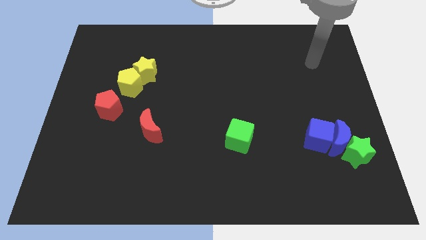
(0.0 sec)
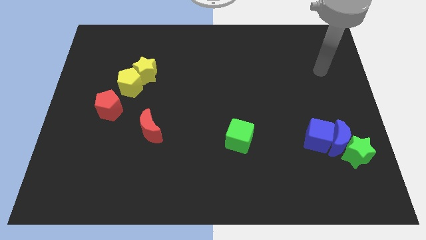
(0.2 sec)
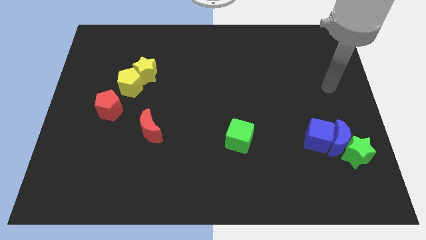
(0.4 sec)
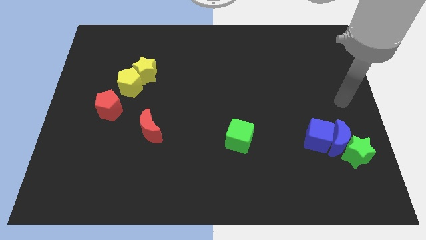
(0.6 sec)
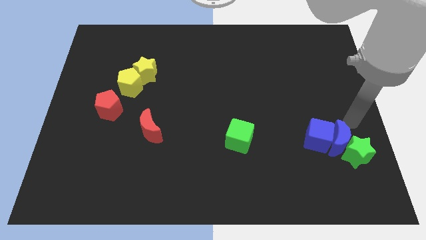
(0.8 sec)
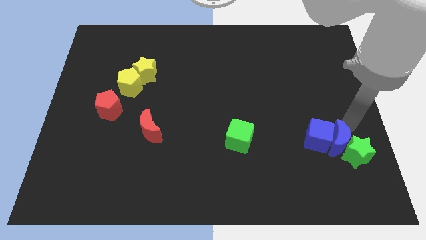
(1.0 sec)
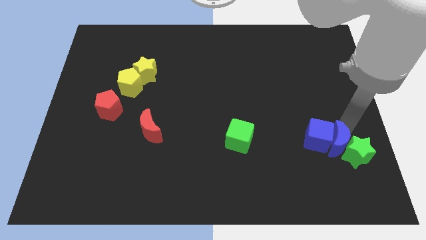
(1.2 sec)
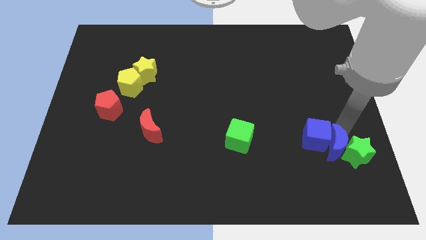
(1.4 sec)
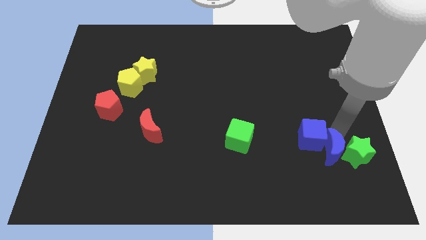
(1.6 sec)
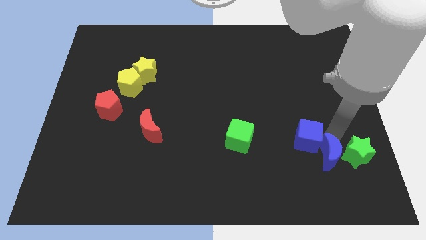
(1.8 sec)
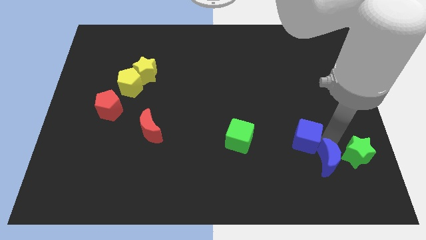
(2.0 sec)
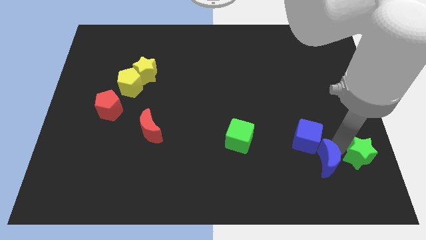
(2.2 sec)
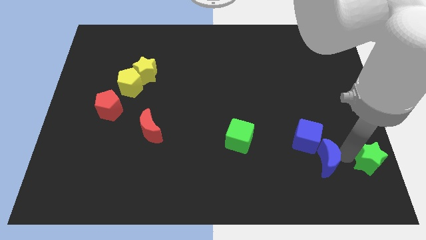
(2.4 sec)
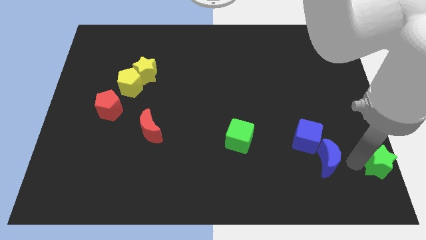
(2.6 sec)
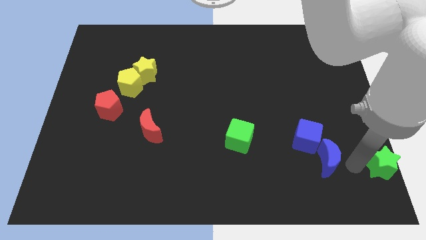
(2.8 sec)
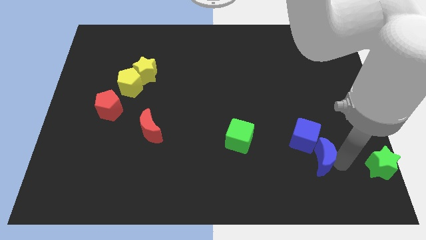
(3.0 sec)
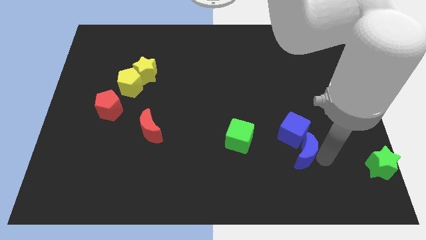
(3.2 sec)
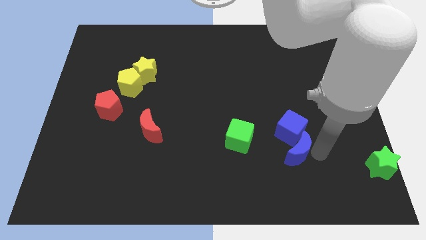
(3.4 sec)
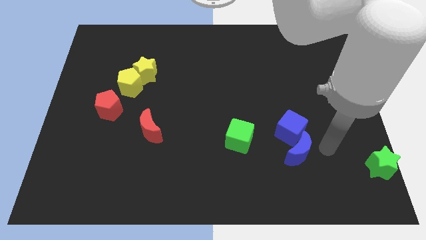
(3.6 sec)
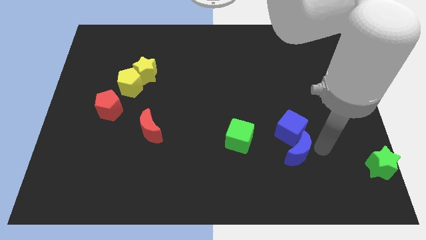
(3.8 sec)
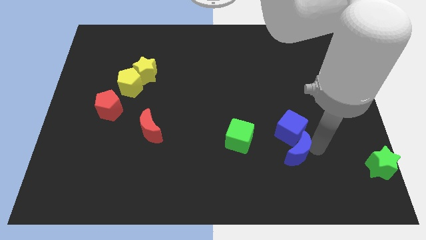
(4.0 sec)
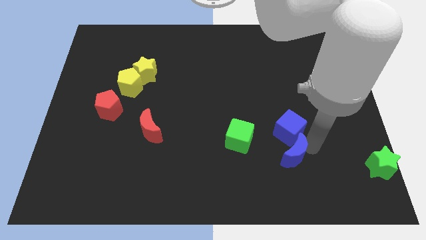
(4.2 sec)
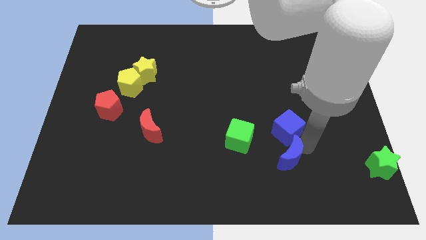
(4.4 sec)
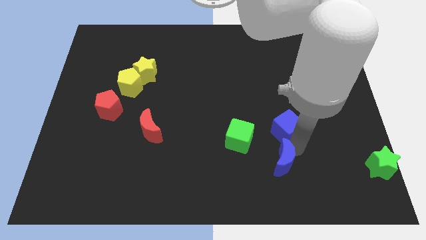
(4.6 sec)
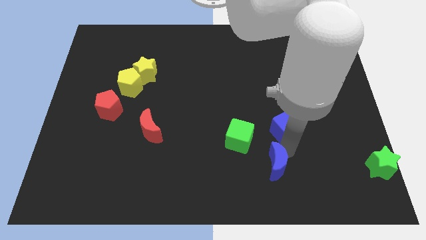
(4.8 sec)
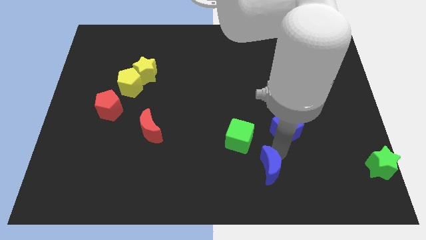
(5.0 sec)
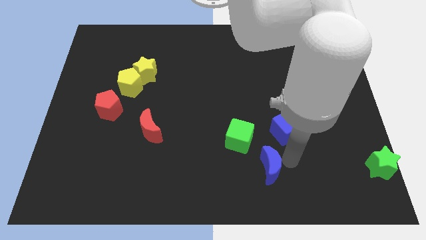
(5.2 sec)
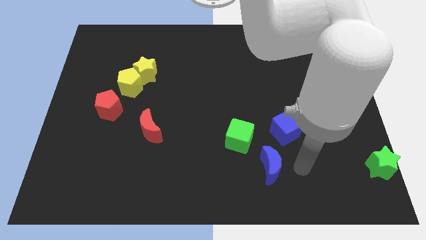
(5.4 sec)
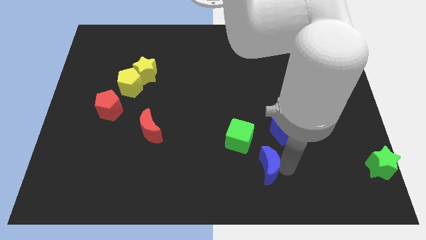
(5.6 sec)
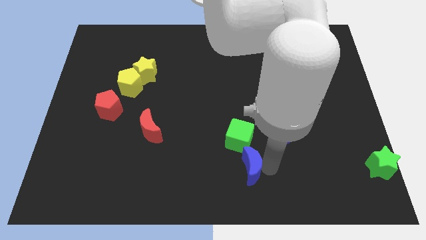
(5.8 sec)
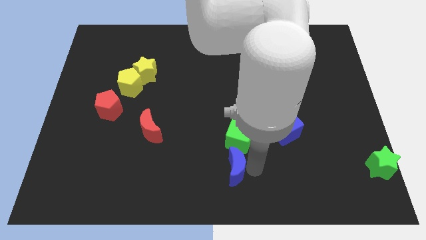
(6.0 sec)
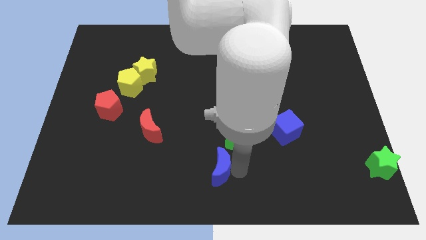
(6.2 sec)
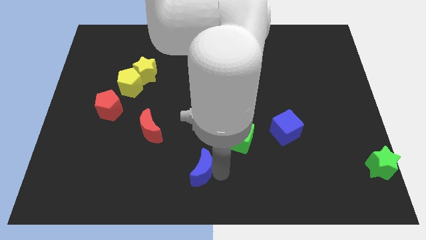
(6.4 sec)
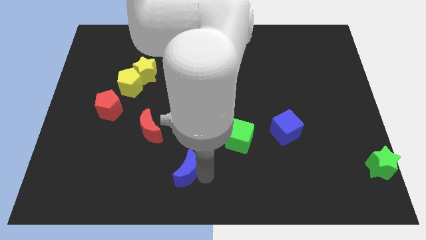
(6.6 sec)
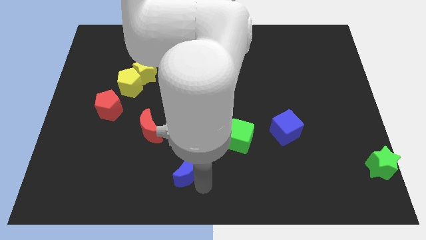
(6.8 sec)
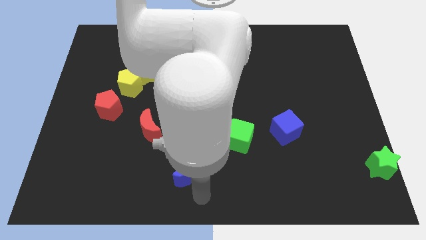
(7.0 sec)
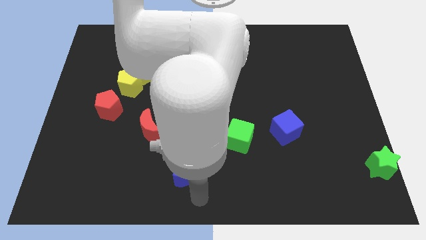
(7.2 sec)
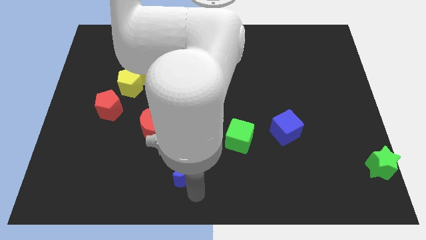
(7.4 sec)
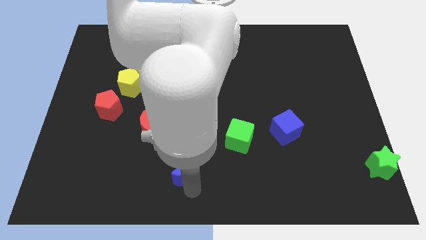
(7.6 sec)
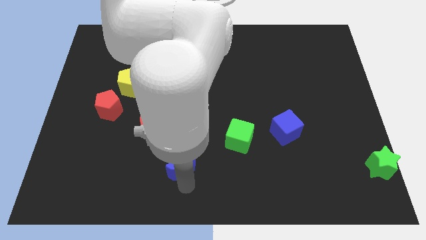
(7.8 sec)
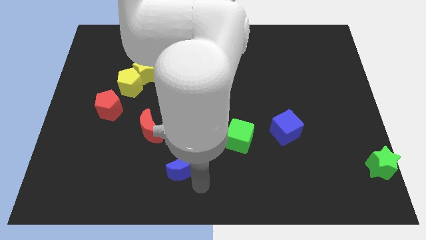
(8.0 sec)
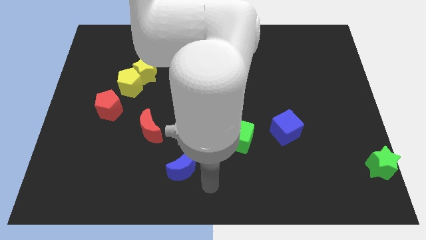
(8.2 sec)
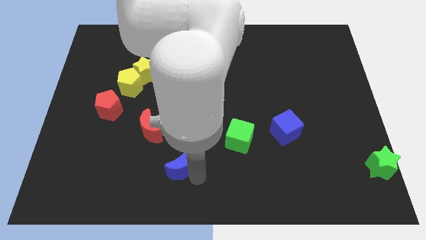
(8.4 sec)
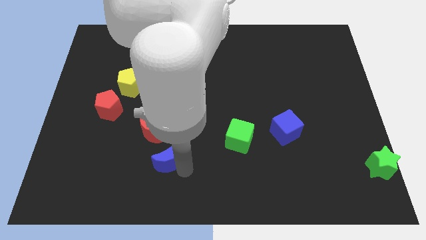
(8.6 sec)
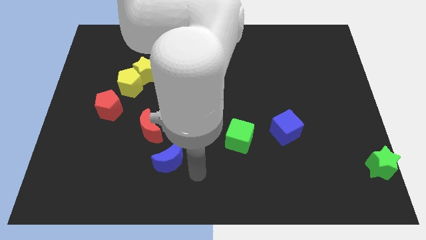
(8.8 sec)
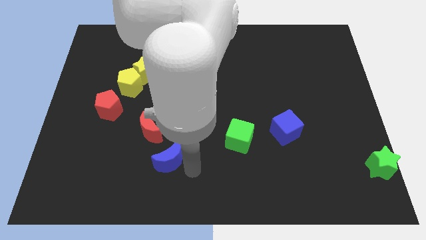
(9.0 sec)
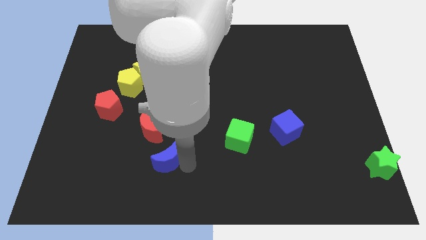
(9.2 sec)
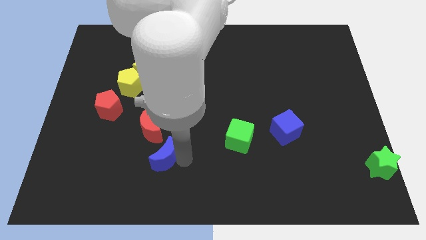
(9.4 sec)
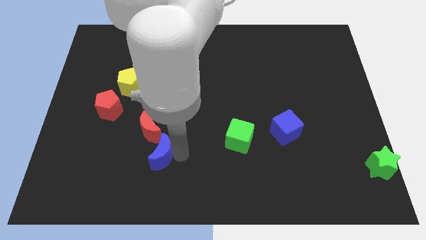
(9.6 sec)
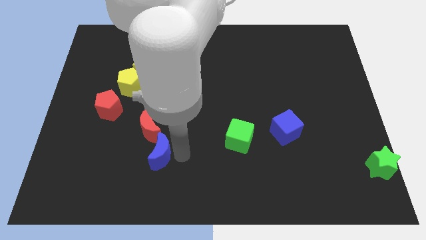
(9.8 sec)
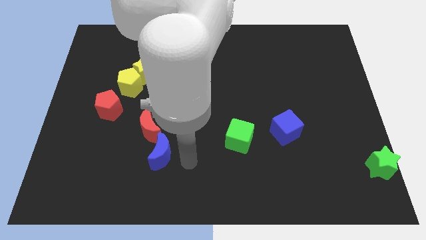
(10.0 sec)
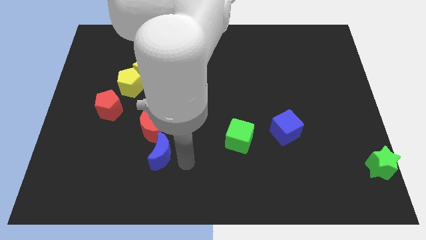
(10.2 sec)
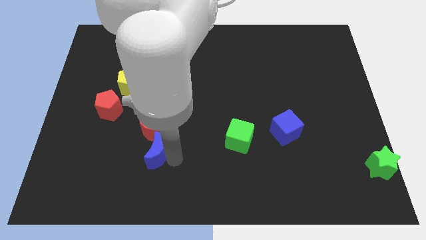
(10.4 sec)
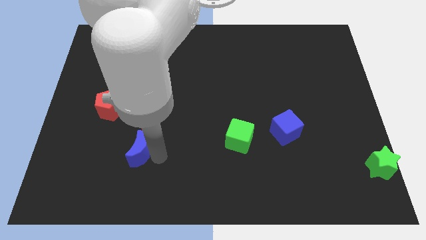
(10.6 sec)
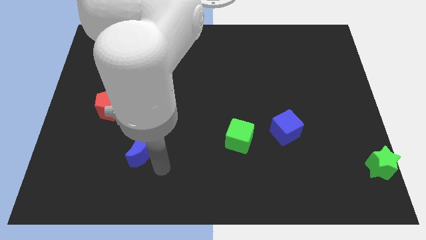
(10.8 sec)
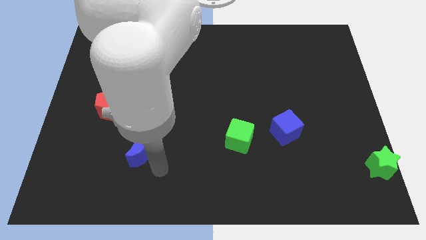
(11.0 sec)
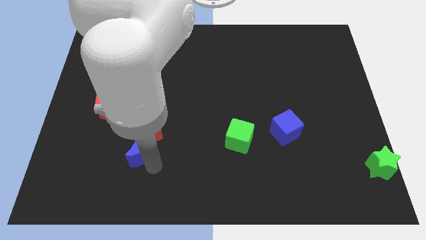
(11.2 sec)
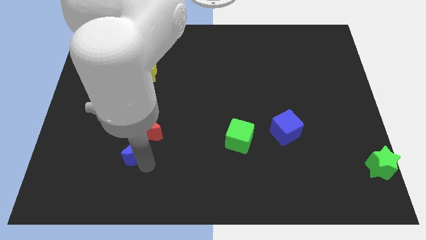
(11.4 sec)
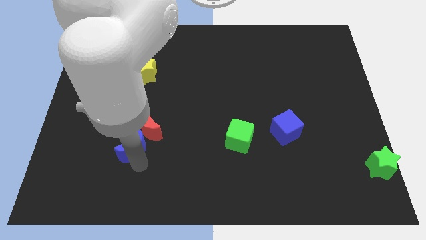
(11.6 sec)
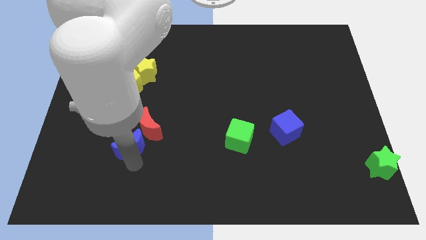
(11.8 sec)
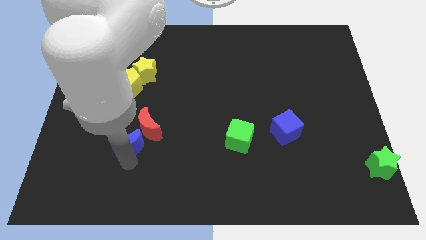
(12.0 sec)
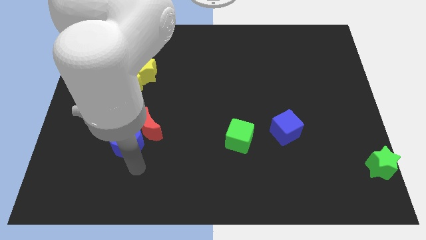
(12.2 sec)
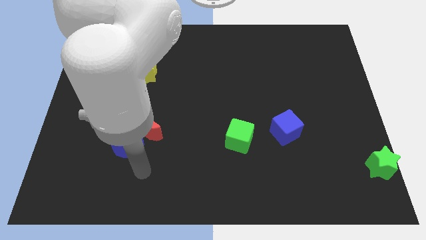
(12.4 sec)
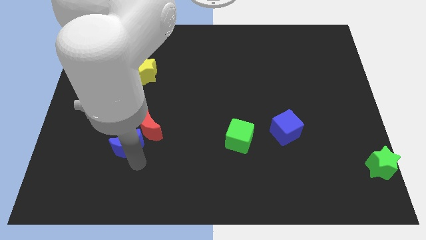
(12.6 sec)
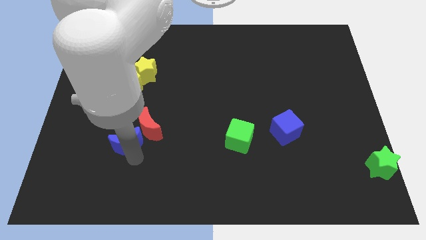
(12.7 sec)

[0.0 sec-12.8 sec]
put the blue moon to the left side of the red moon

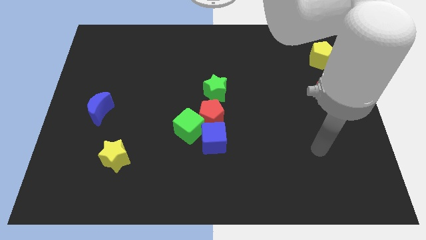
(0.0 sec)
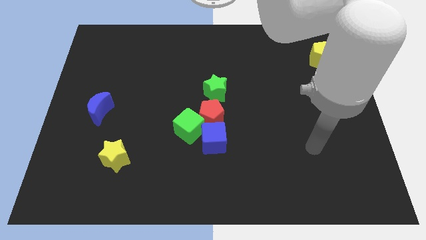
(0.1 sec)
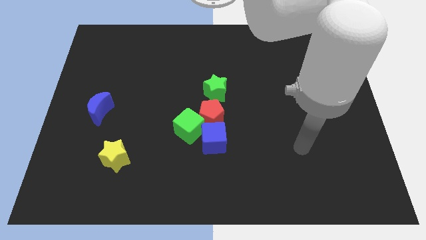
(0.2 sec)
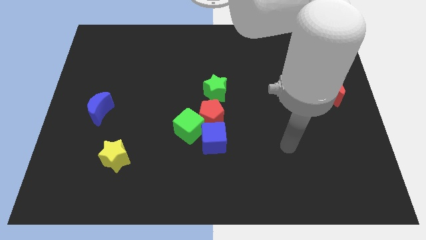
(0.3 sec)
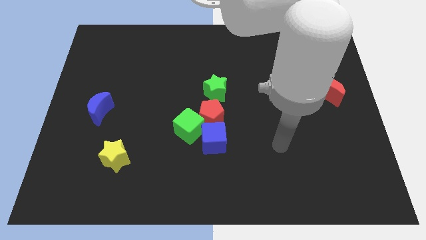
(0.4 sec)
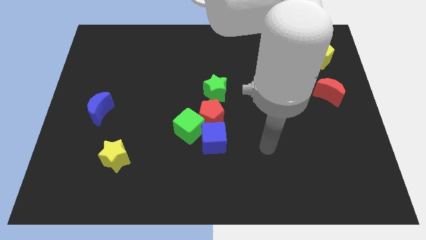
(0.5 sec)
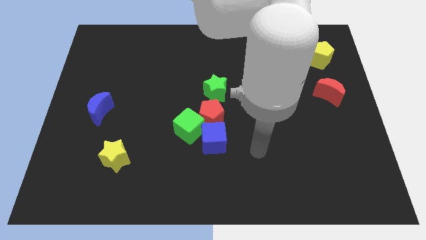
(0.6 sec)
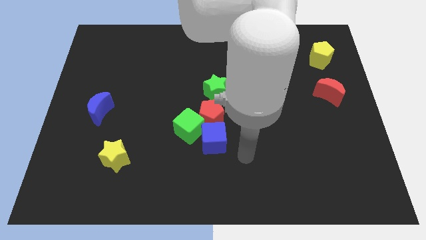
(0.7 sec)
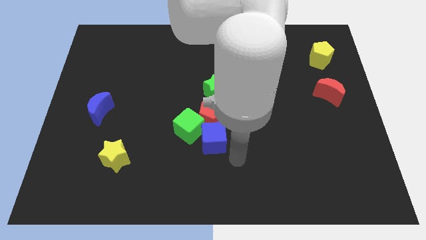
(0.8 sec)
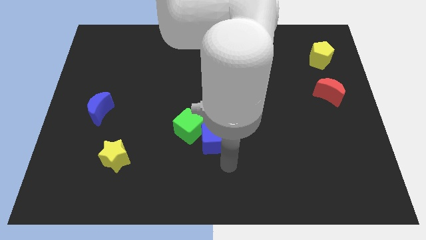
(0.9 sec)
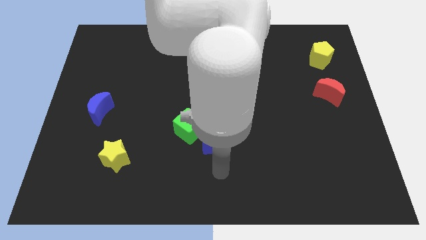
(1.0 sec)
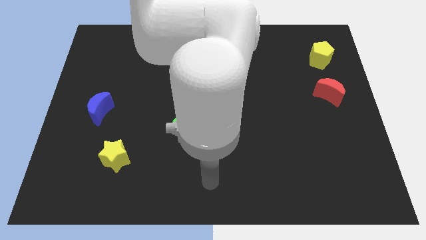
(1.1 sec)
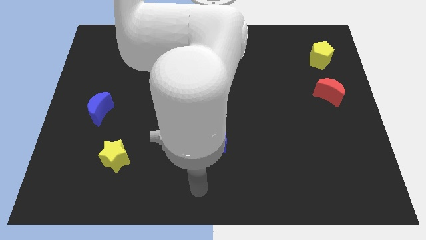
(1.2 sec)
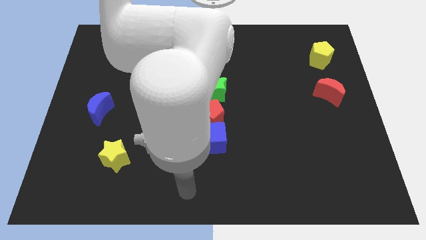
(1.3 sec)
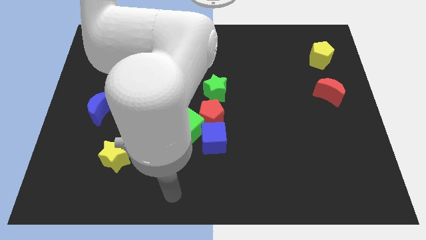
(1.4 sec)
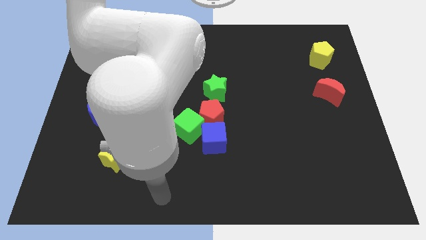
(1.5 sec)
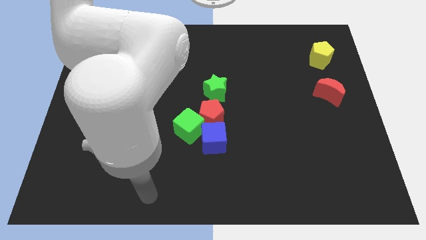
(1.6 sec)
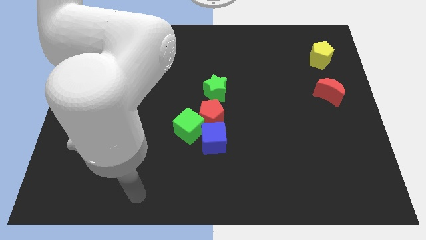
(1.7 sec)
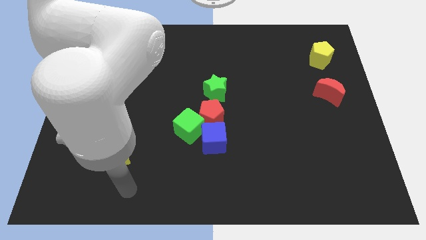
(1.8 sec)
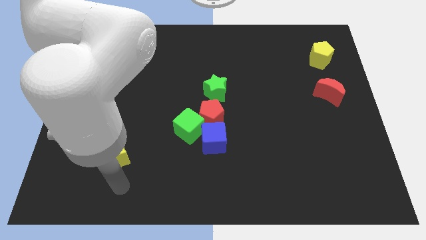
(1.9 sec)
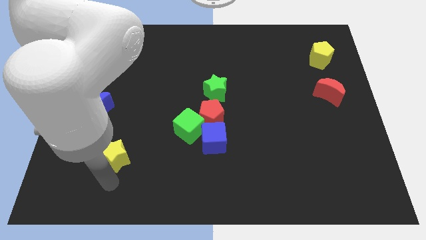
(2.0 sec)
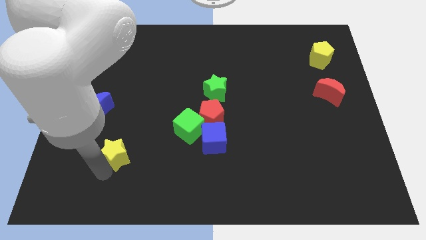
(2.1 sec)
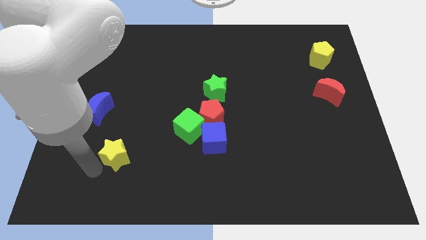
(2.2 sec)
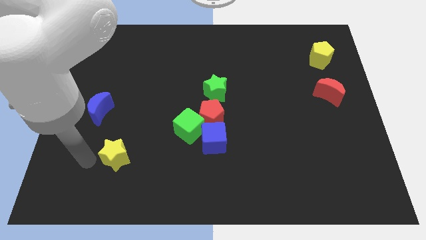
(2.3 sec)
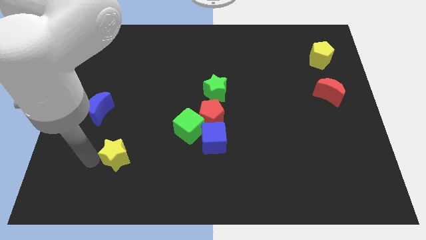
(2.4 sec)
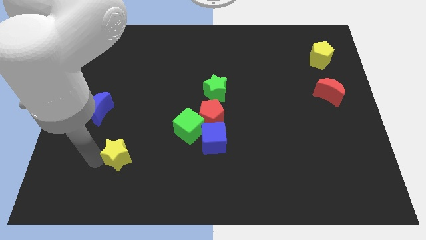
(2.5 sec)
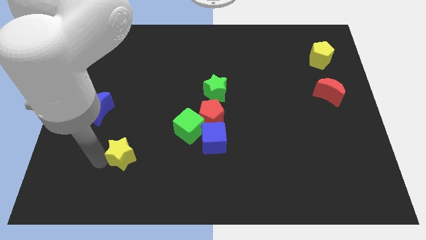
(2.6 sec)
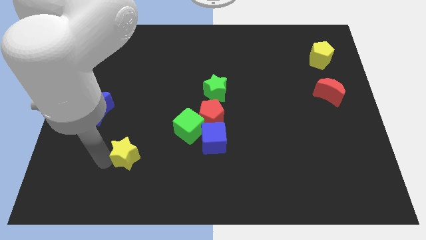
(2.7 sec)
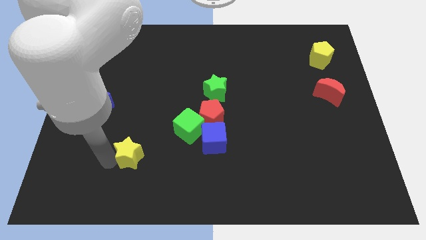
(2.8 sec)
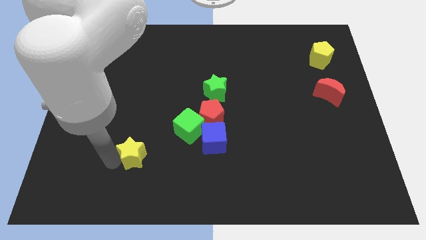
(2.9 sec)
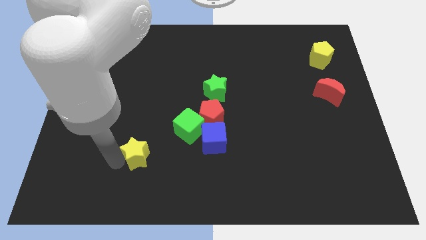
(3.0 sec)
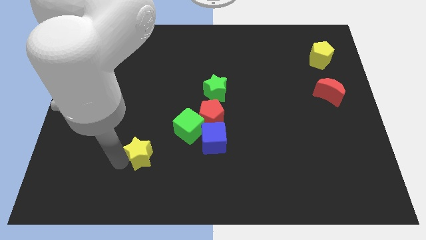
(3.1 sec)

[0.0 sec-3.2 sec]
slide the yellow star to the bottom left side of the green cube
